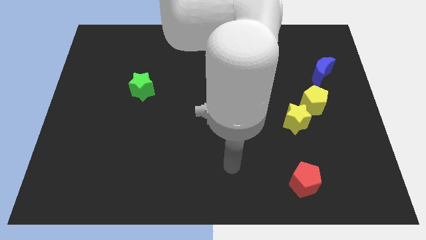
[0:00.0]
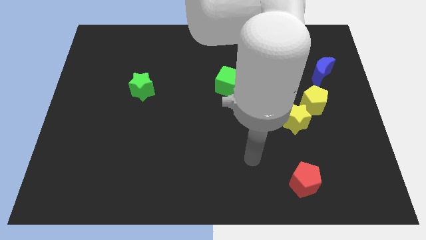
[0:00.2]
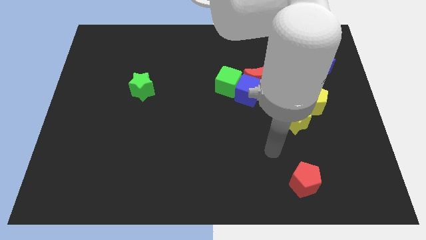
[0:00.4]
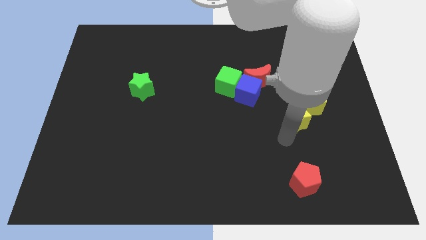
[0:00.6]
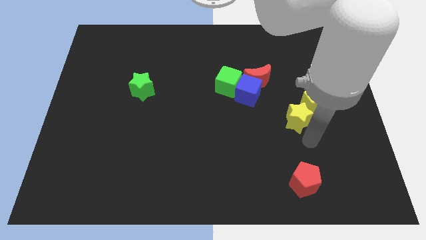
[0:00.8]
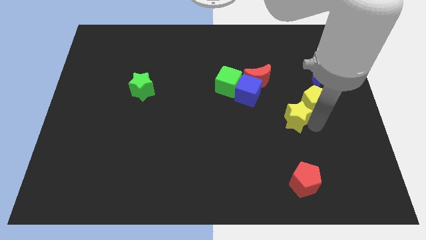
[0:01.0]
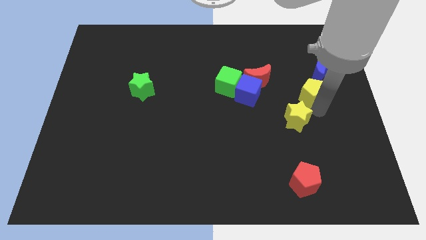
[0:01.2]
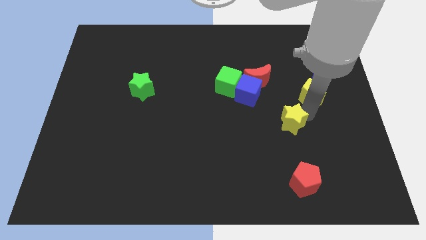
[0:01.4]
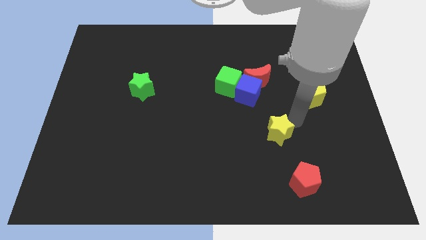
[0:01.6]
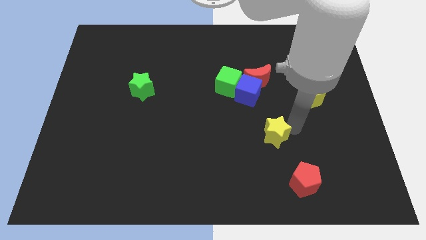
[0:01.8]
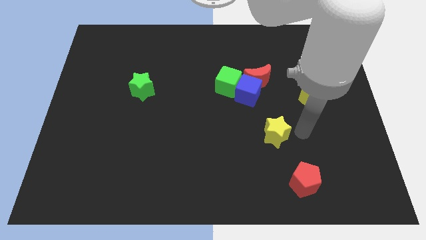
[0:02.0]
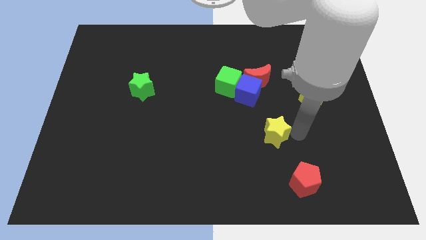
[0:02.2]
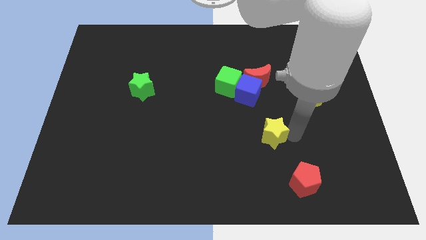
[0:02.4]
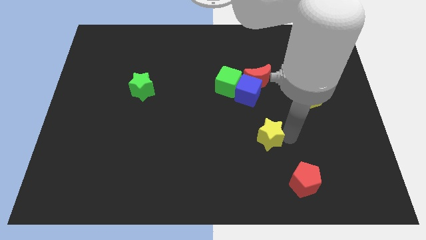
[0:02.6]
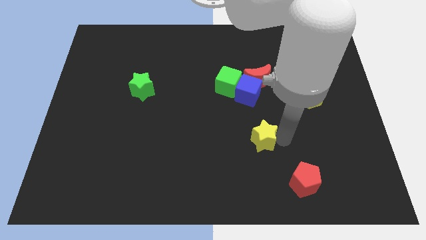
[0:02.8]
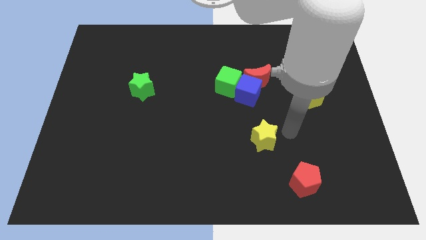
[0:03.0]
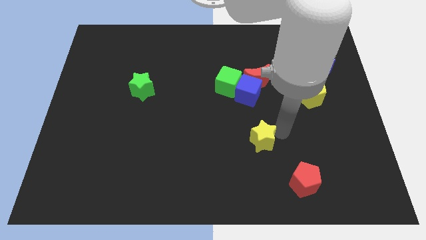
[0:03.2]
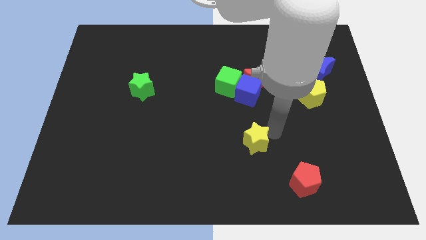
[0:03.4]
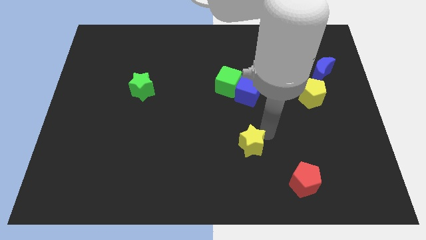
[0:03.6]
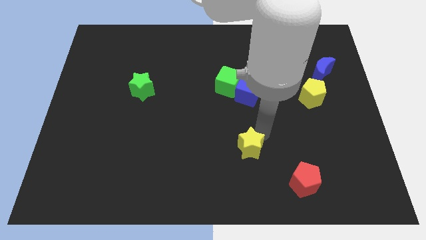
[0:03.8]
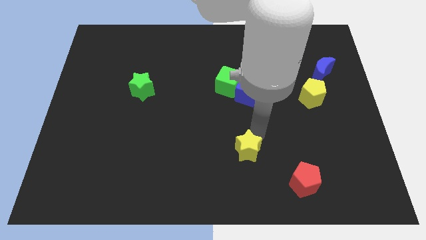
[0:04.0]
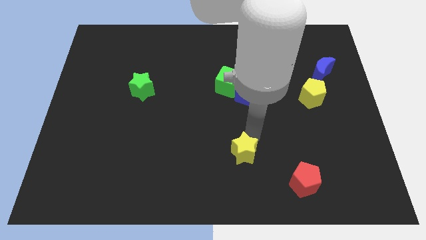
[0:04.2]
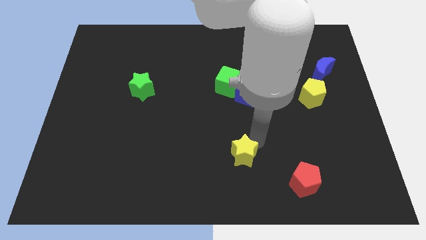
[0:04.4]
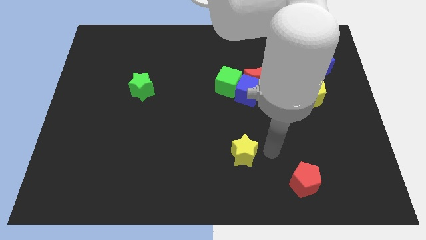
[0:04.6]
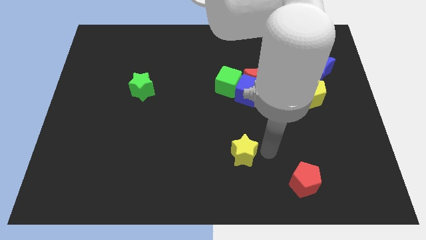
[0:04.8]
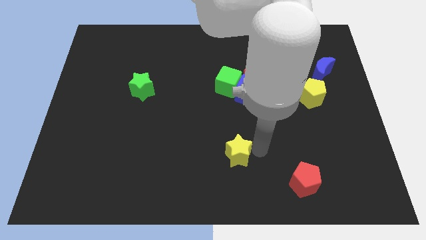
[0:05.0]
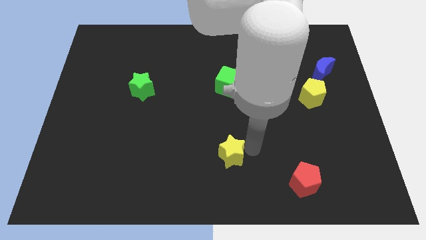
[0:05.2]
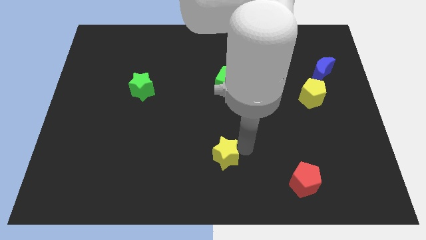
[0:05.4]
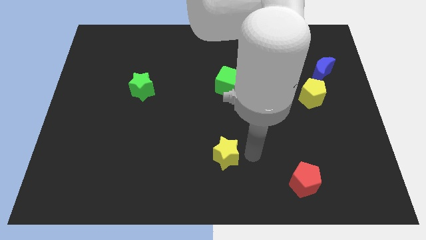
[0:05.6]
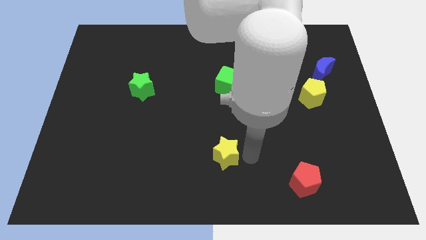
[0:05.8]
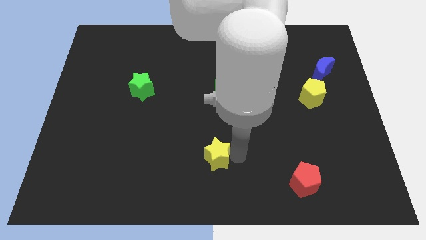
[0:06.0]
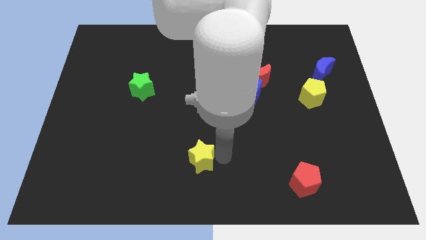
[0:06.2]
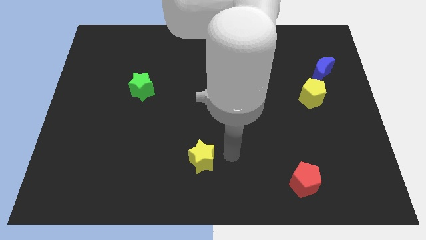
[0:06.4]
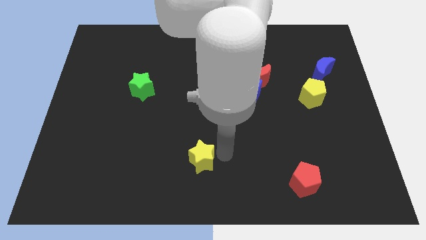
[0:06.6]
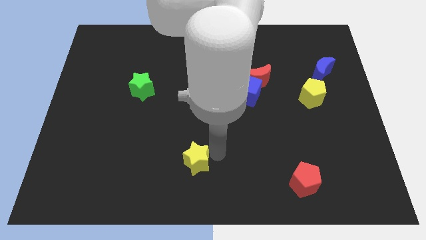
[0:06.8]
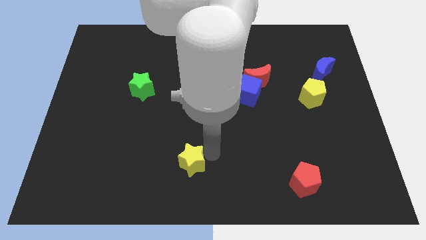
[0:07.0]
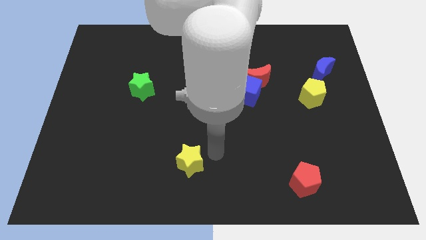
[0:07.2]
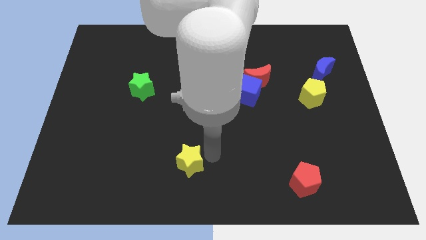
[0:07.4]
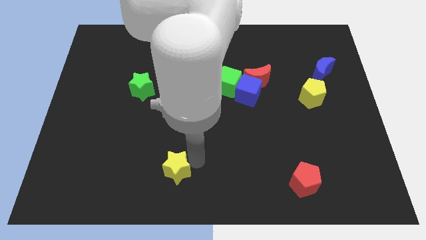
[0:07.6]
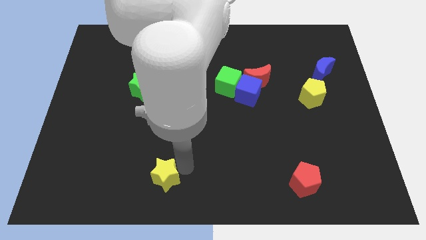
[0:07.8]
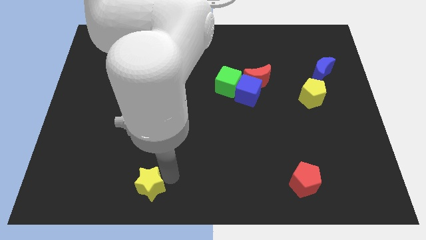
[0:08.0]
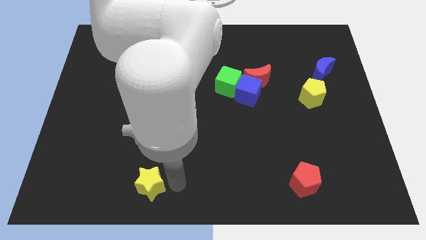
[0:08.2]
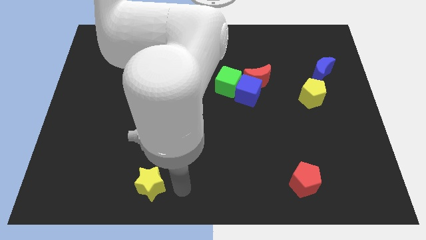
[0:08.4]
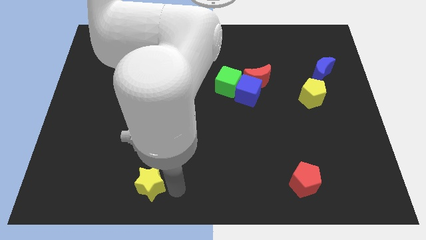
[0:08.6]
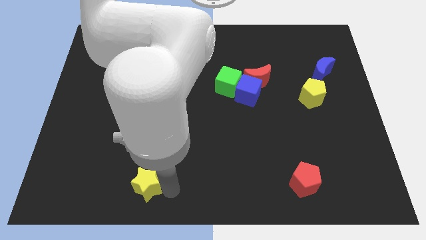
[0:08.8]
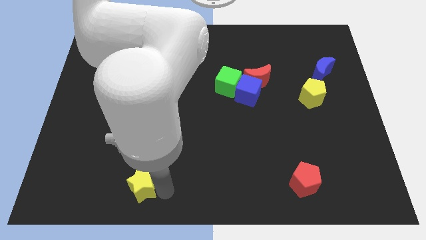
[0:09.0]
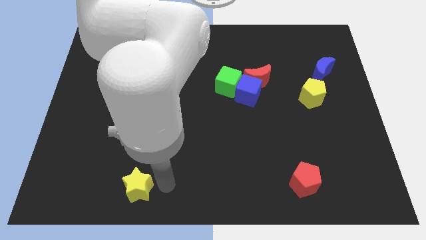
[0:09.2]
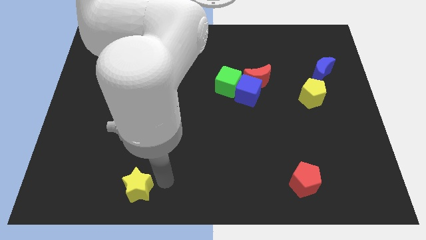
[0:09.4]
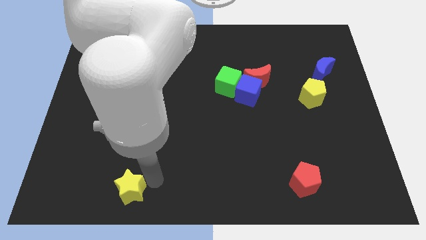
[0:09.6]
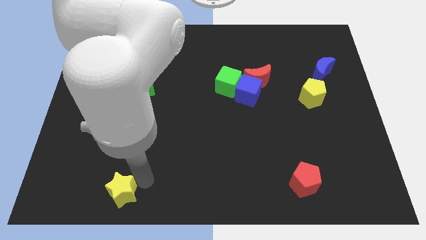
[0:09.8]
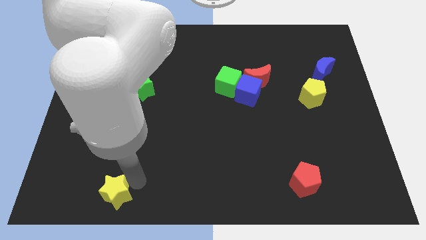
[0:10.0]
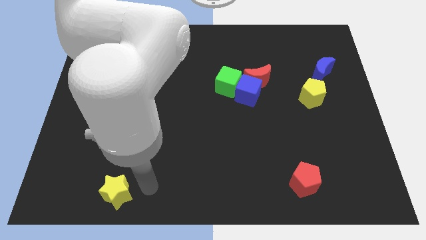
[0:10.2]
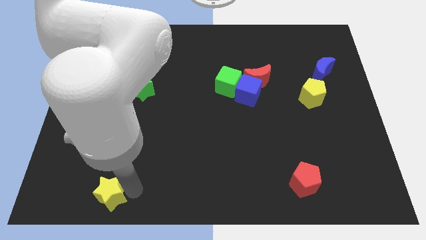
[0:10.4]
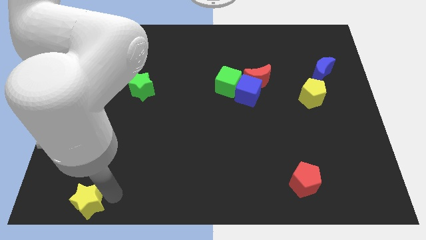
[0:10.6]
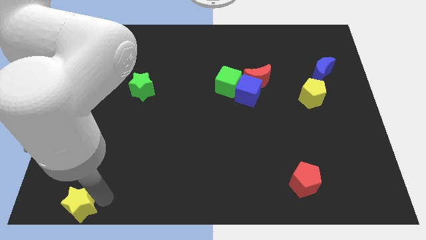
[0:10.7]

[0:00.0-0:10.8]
move the yellow star to the lower left corner

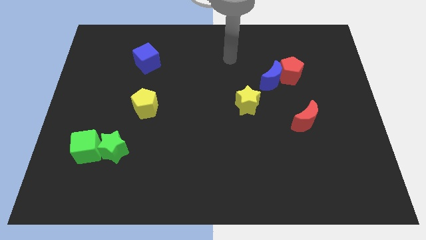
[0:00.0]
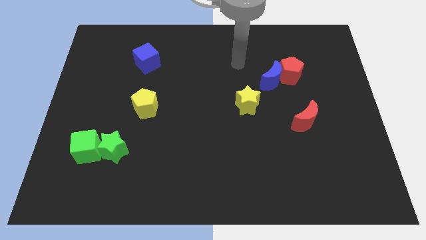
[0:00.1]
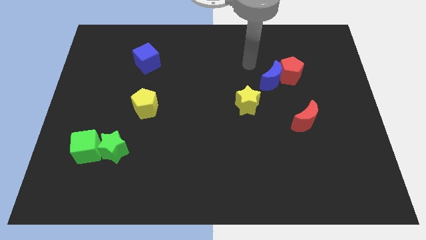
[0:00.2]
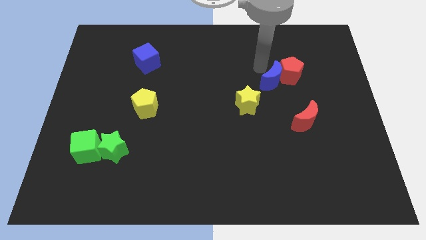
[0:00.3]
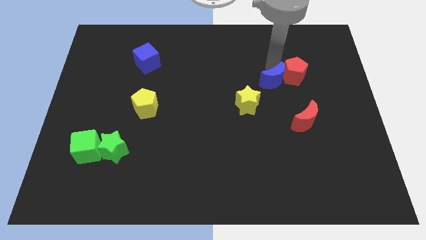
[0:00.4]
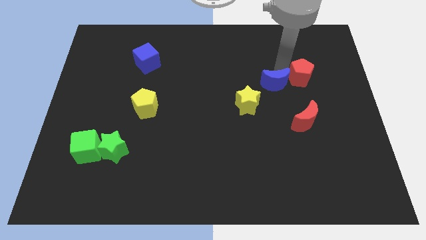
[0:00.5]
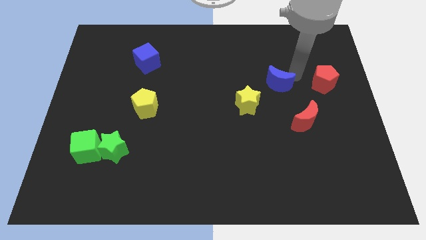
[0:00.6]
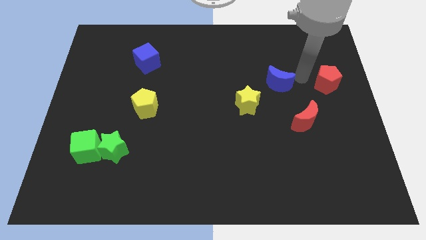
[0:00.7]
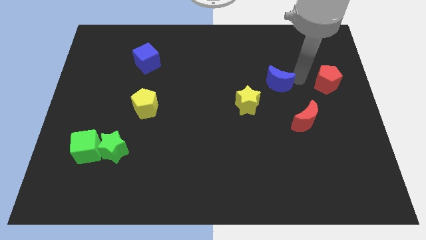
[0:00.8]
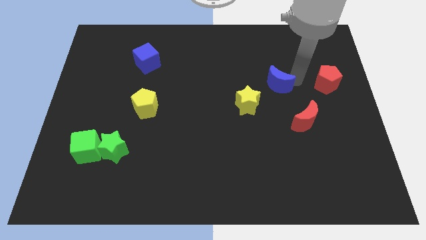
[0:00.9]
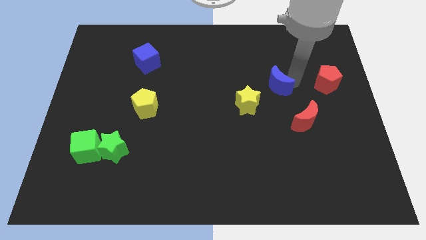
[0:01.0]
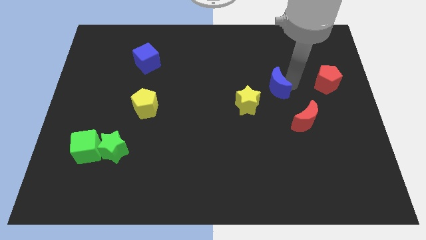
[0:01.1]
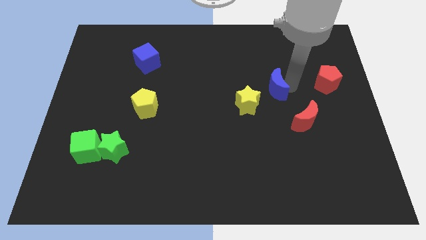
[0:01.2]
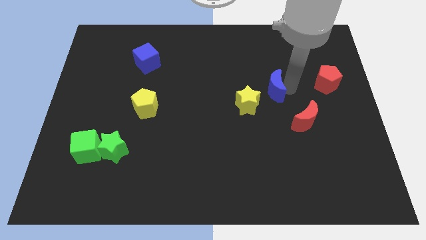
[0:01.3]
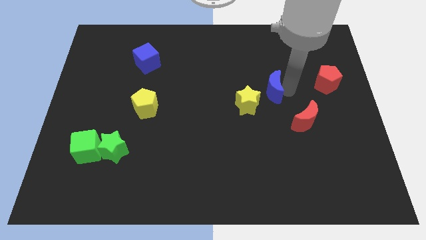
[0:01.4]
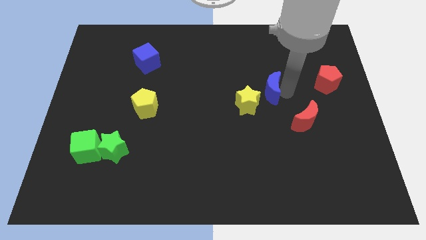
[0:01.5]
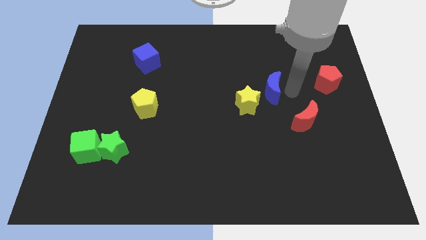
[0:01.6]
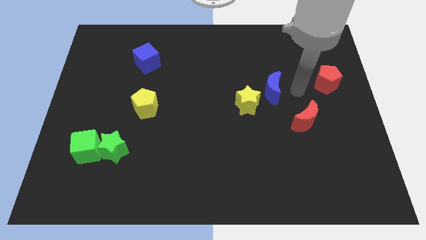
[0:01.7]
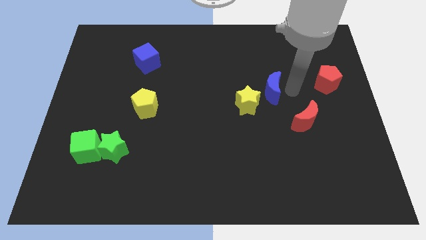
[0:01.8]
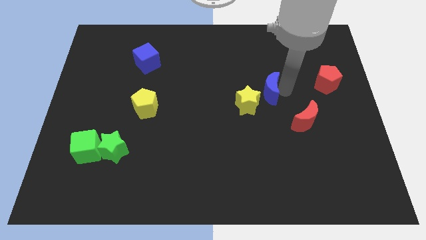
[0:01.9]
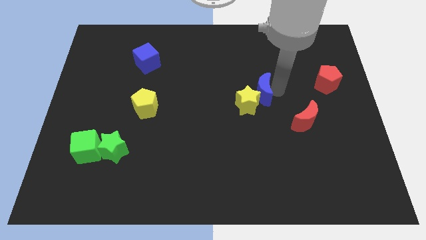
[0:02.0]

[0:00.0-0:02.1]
move the blue moon to the middle of the board
